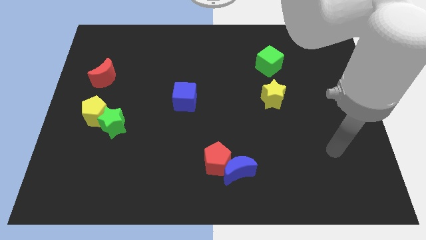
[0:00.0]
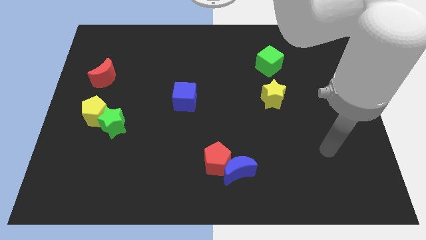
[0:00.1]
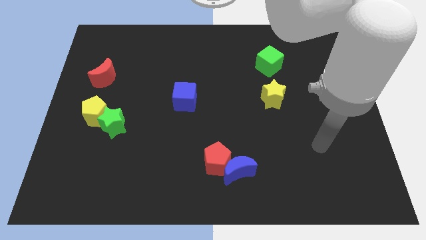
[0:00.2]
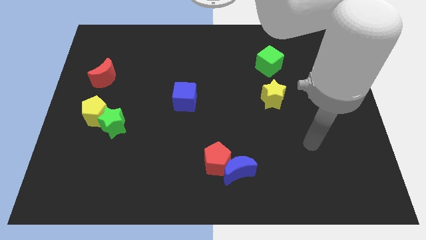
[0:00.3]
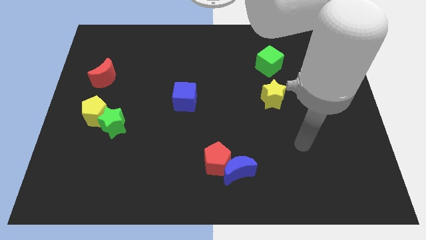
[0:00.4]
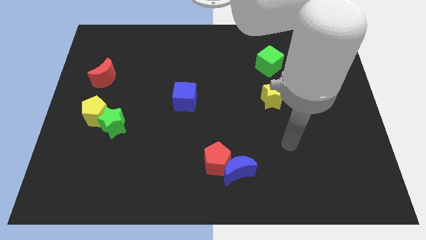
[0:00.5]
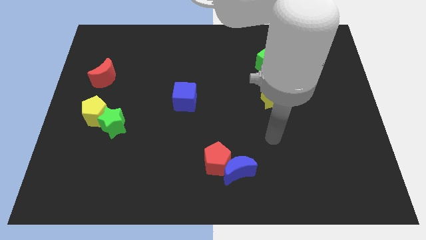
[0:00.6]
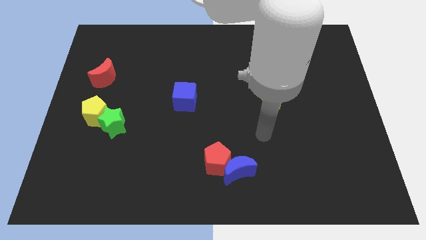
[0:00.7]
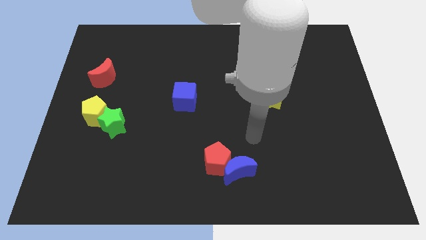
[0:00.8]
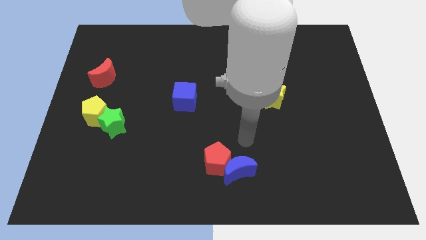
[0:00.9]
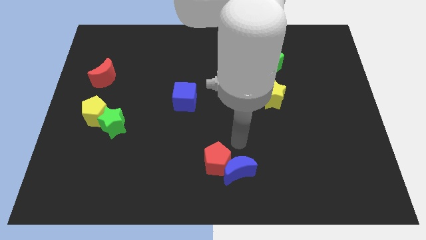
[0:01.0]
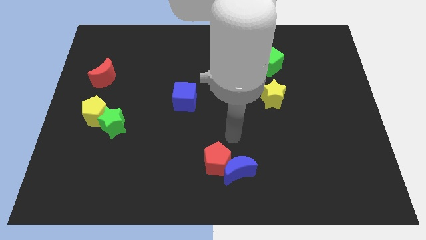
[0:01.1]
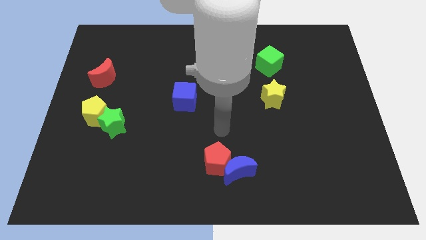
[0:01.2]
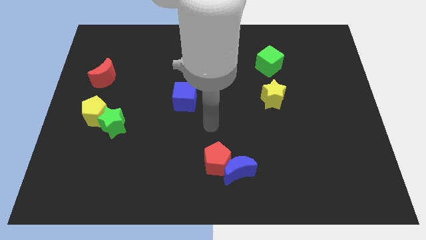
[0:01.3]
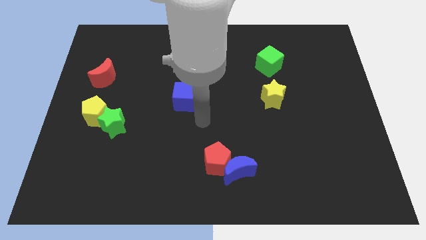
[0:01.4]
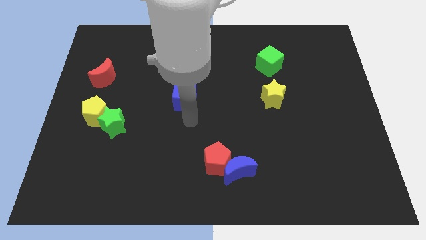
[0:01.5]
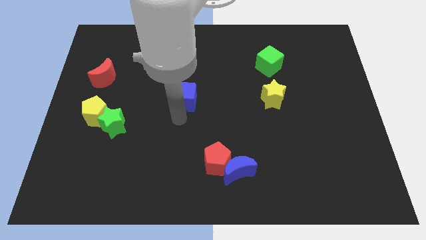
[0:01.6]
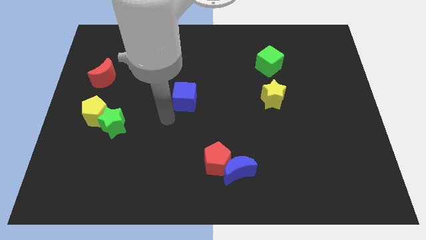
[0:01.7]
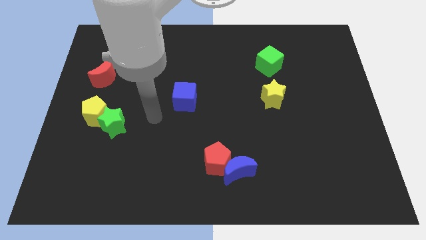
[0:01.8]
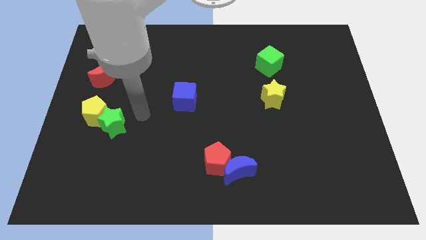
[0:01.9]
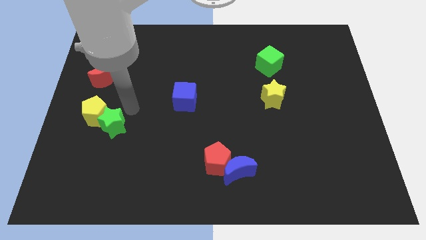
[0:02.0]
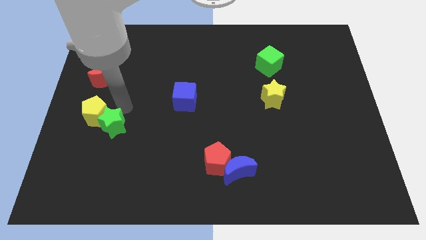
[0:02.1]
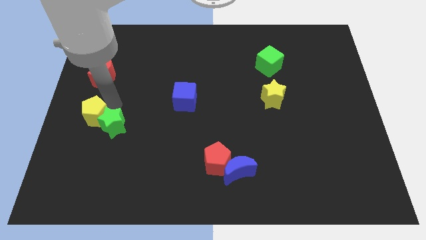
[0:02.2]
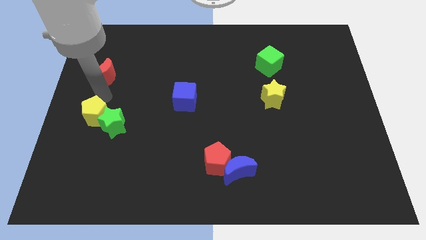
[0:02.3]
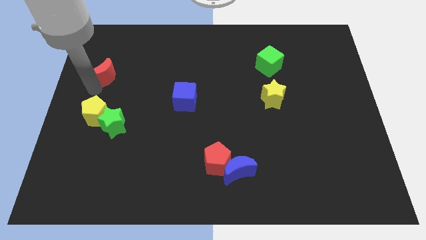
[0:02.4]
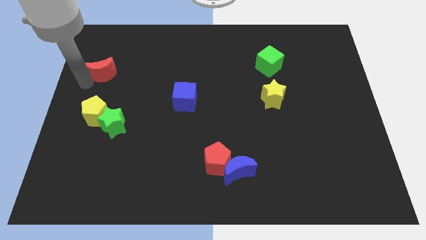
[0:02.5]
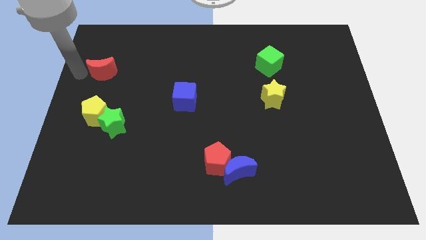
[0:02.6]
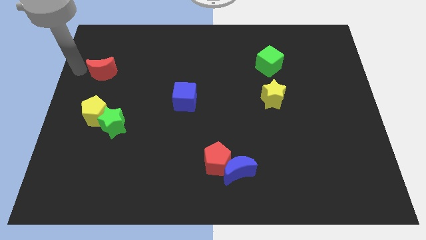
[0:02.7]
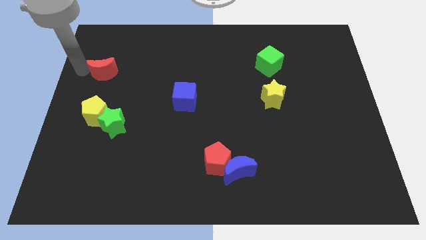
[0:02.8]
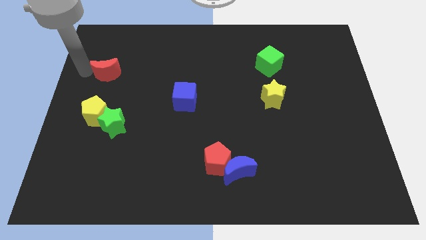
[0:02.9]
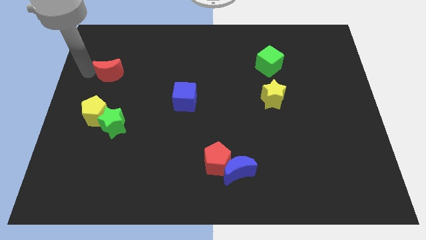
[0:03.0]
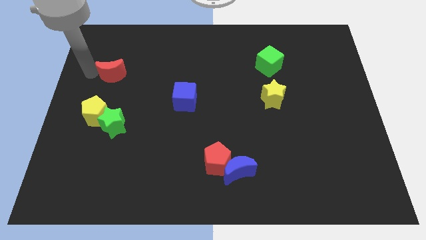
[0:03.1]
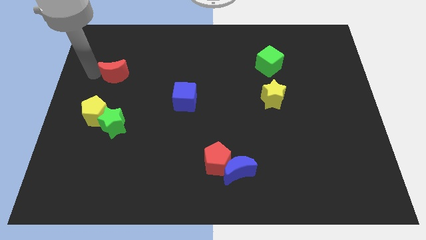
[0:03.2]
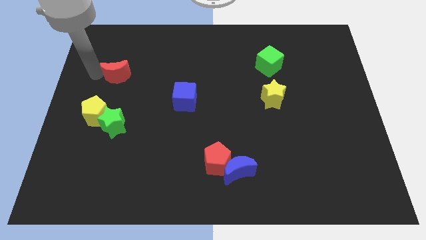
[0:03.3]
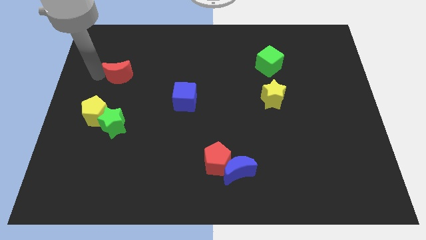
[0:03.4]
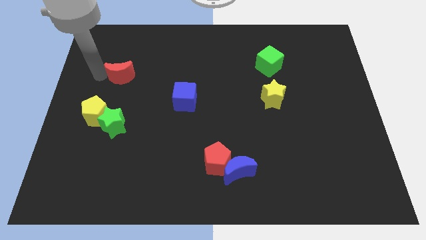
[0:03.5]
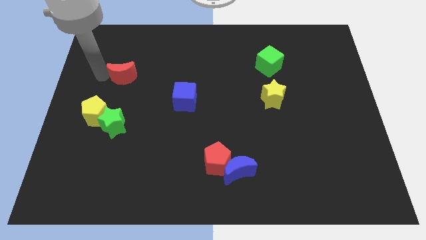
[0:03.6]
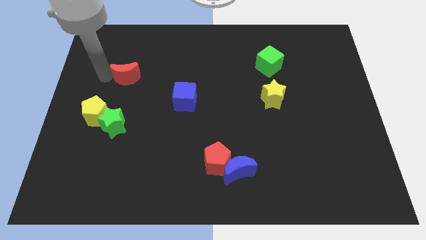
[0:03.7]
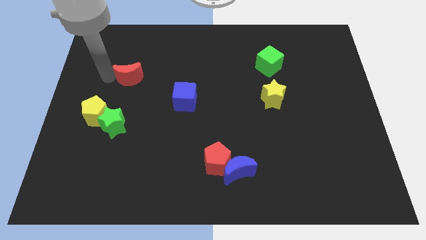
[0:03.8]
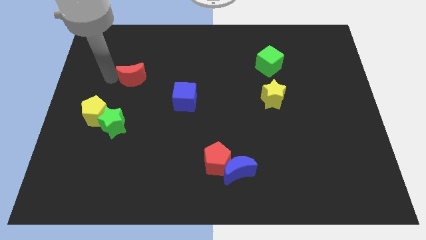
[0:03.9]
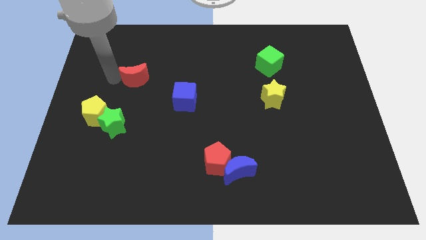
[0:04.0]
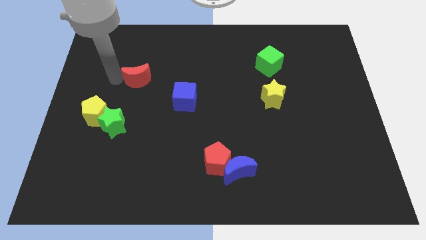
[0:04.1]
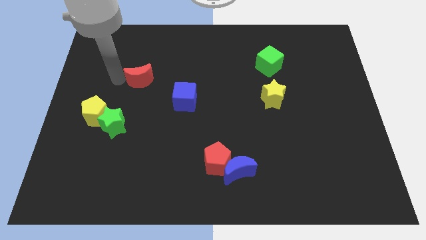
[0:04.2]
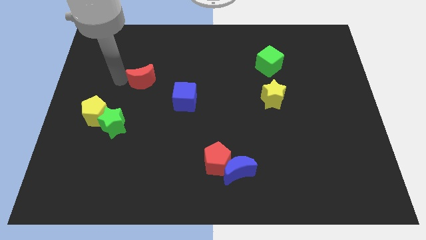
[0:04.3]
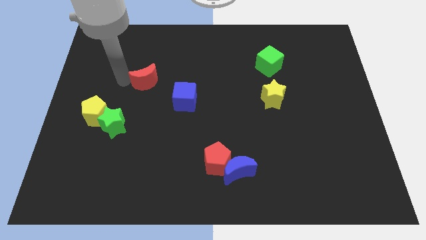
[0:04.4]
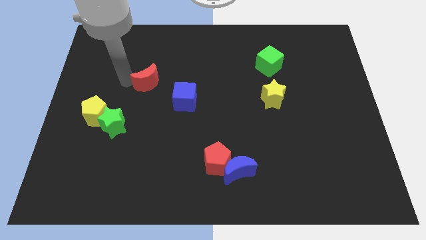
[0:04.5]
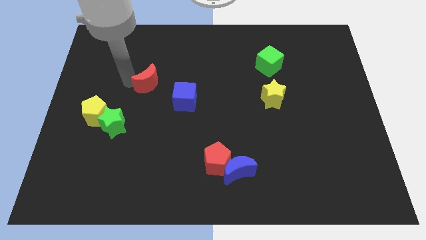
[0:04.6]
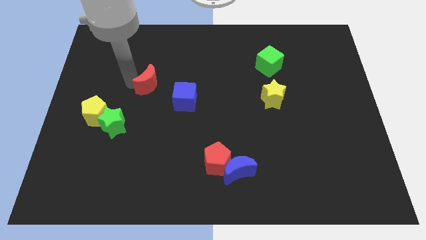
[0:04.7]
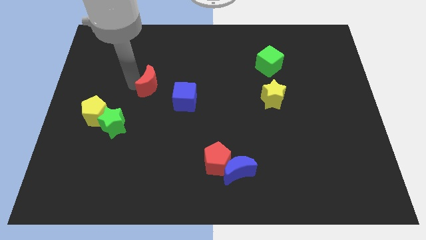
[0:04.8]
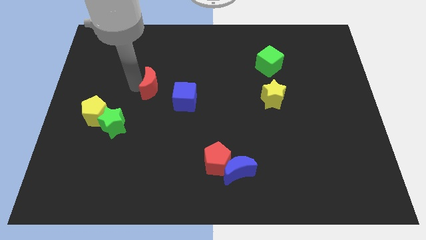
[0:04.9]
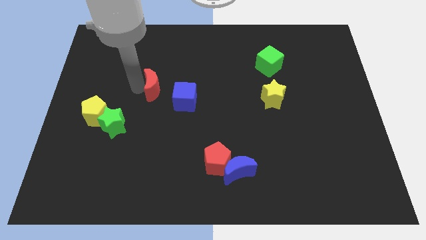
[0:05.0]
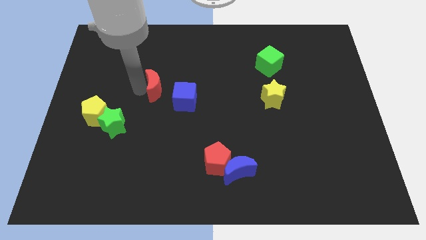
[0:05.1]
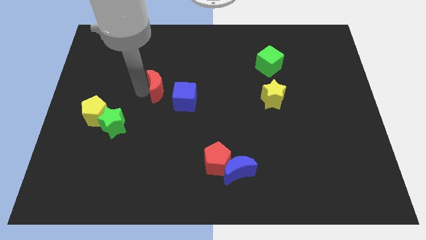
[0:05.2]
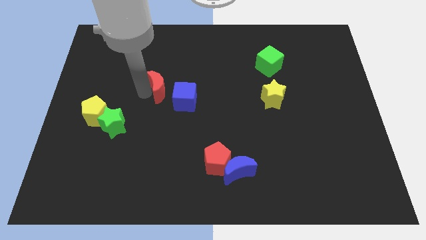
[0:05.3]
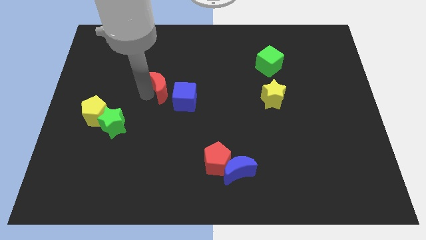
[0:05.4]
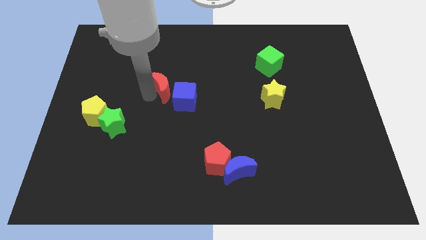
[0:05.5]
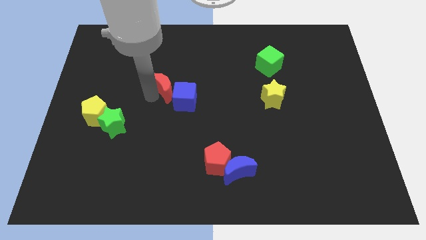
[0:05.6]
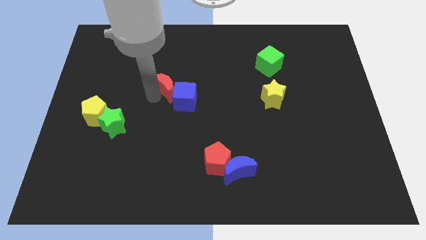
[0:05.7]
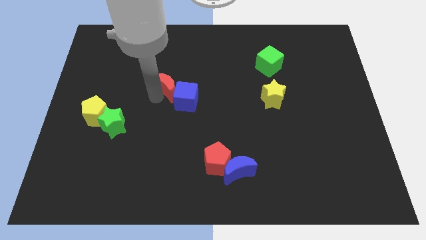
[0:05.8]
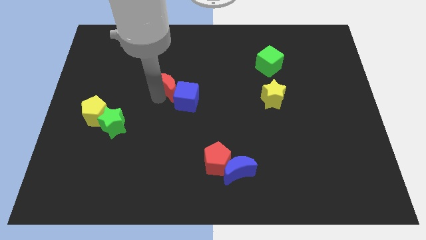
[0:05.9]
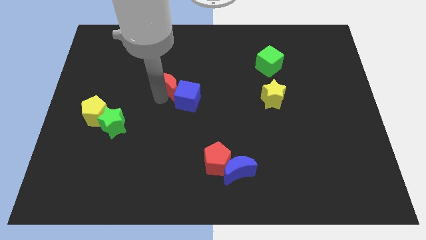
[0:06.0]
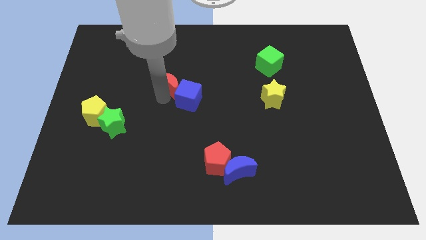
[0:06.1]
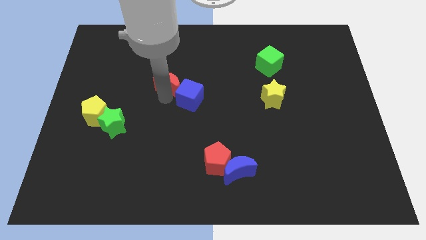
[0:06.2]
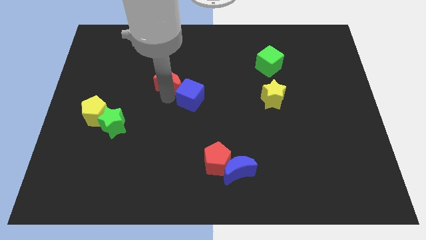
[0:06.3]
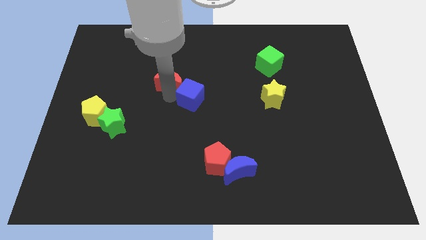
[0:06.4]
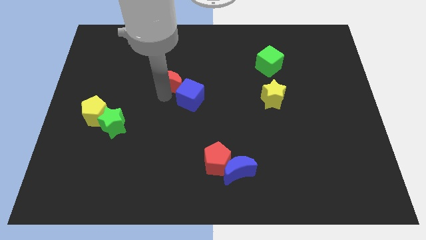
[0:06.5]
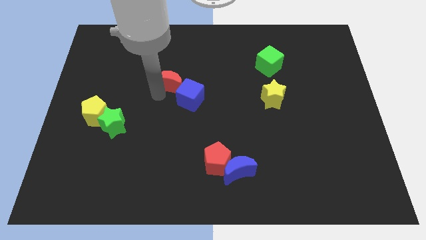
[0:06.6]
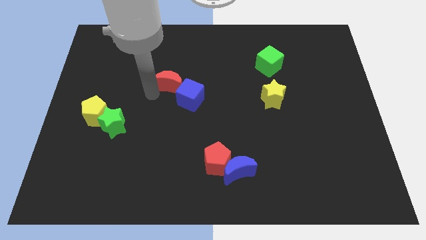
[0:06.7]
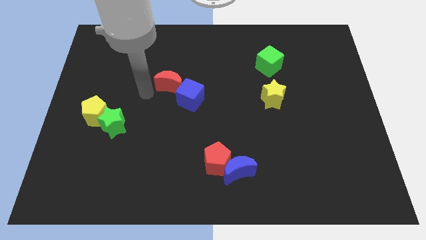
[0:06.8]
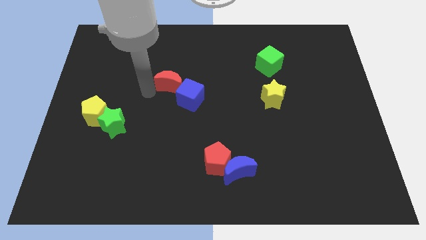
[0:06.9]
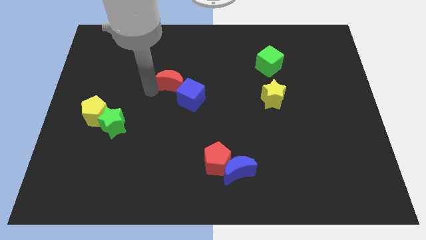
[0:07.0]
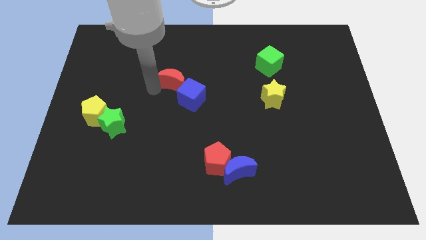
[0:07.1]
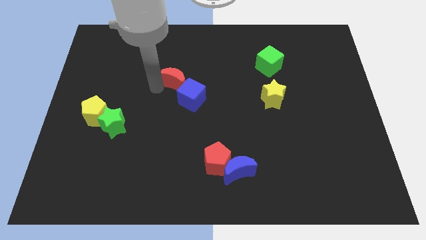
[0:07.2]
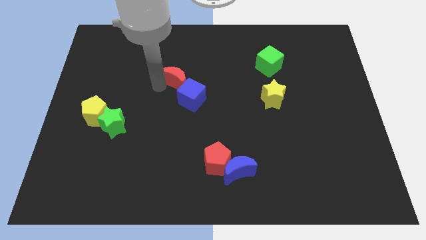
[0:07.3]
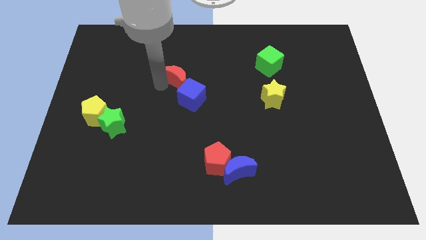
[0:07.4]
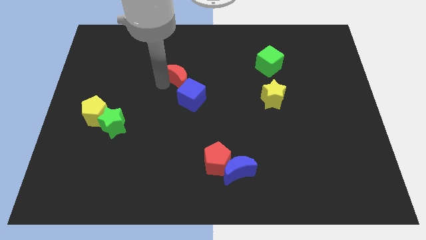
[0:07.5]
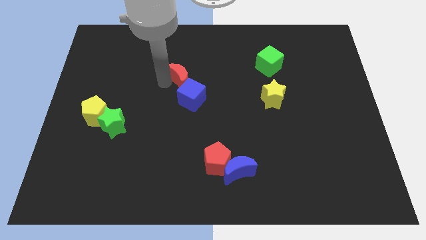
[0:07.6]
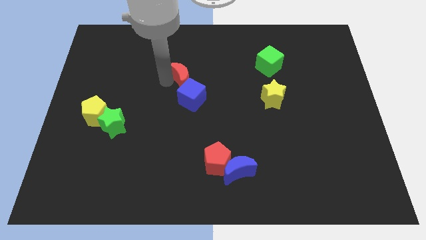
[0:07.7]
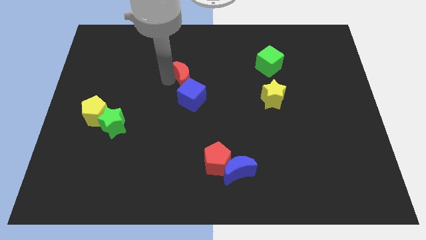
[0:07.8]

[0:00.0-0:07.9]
move the red moon right
